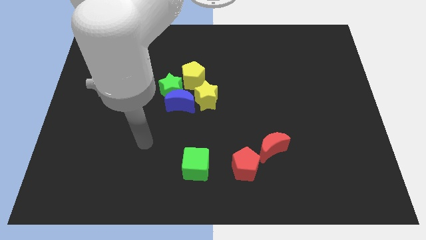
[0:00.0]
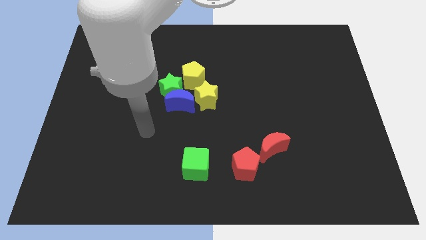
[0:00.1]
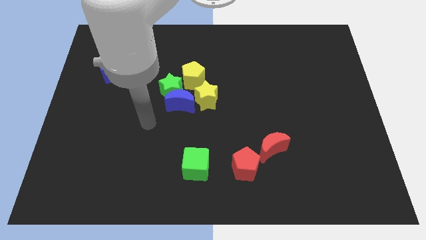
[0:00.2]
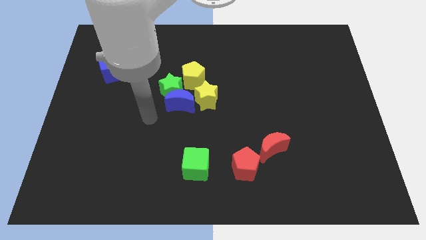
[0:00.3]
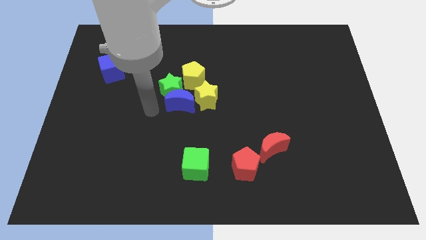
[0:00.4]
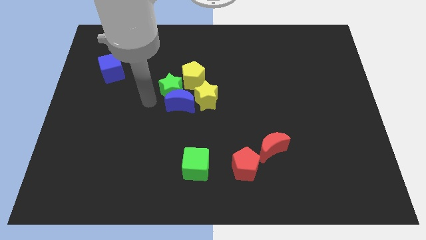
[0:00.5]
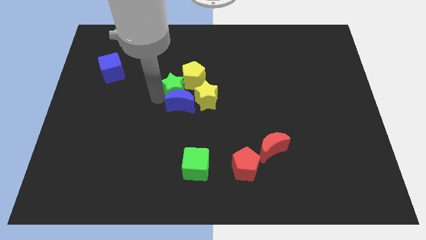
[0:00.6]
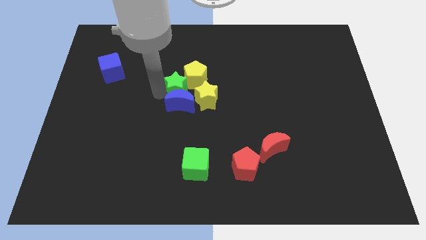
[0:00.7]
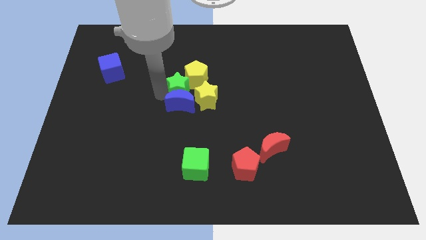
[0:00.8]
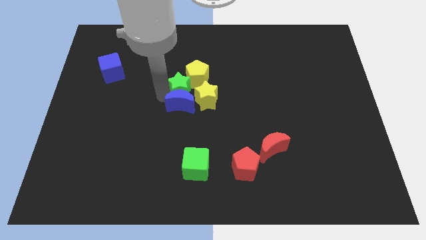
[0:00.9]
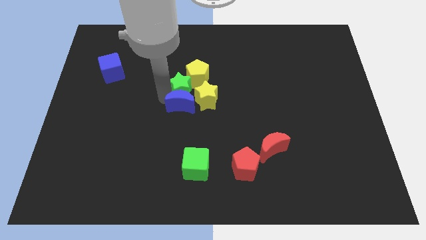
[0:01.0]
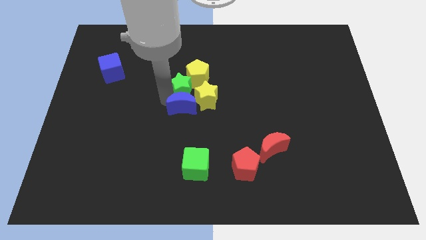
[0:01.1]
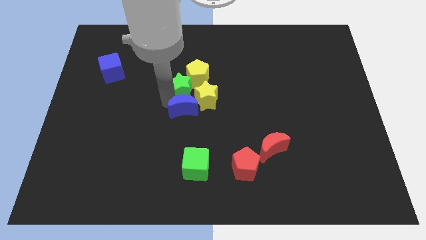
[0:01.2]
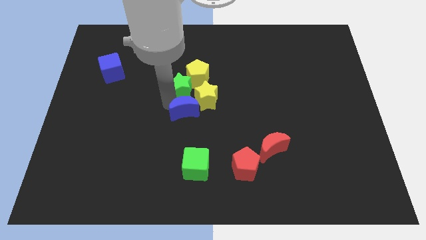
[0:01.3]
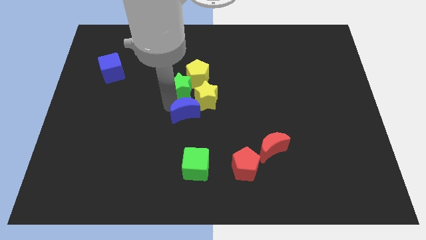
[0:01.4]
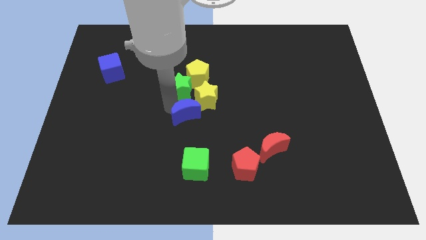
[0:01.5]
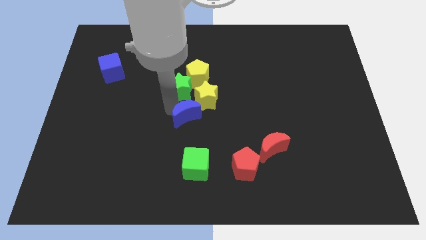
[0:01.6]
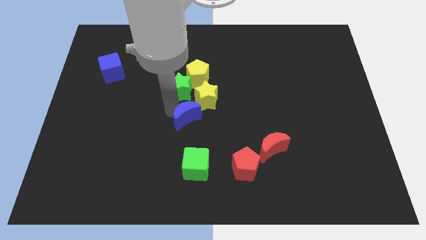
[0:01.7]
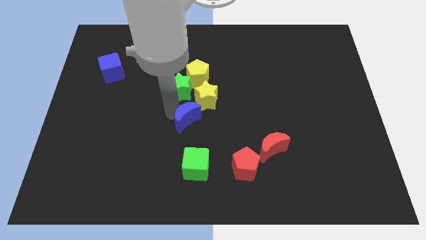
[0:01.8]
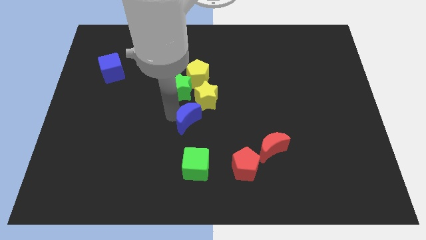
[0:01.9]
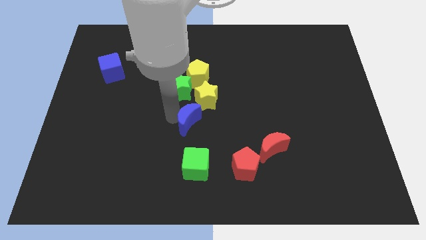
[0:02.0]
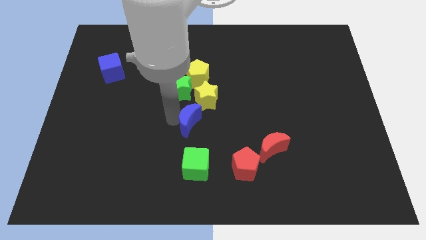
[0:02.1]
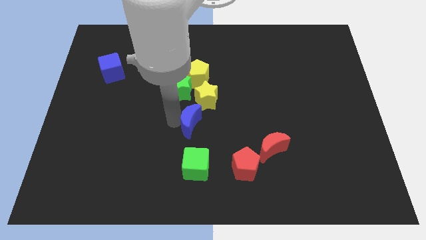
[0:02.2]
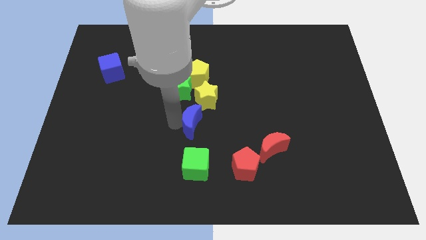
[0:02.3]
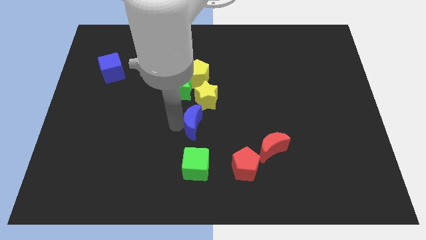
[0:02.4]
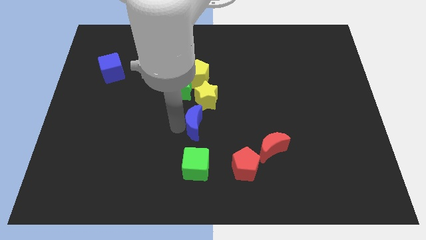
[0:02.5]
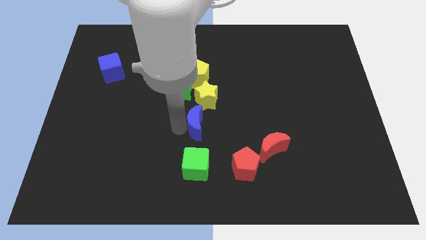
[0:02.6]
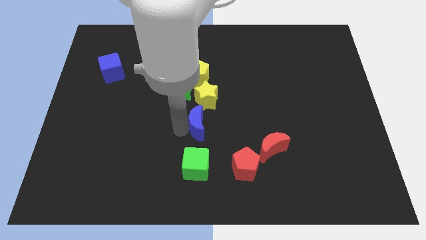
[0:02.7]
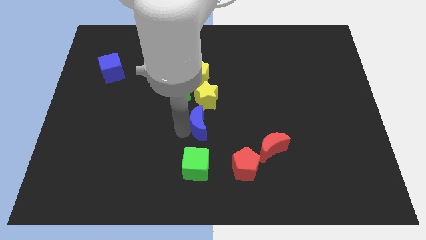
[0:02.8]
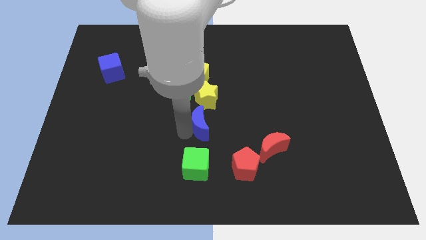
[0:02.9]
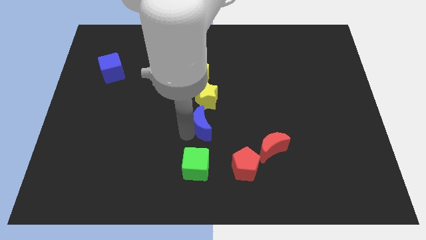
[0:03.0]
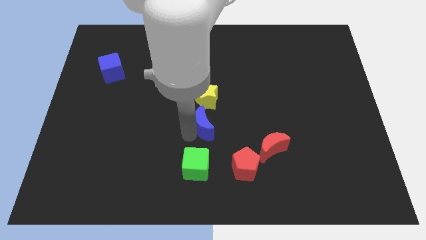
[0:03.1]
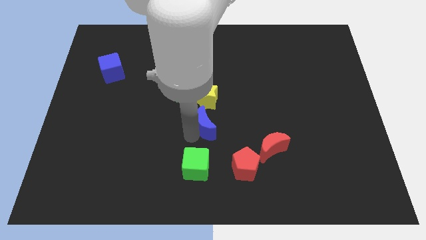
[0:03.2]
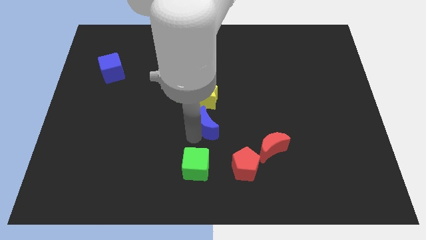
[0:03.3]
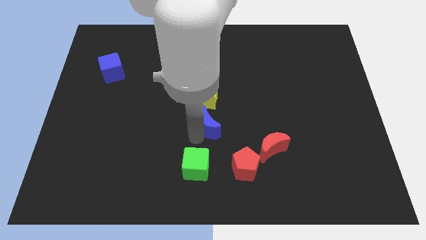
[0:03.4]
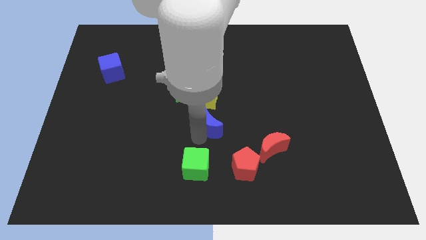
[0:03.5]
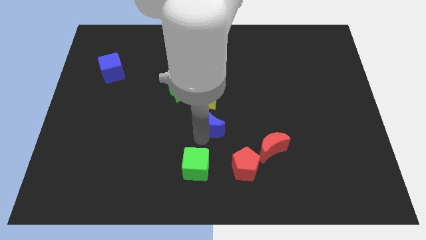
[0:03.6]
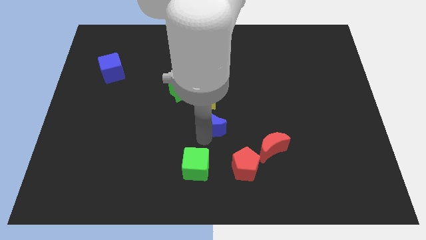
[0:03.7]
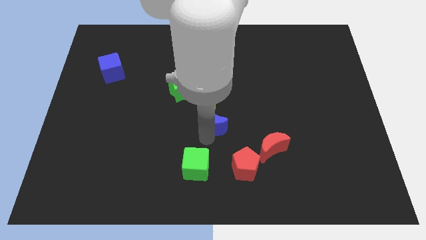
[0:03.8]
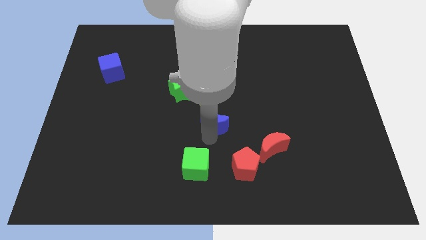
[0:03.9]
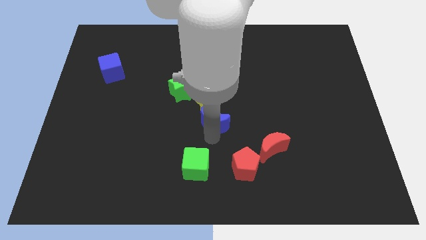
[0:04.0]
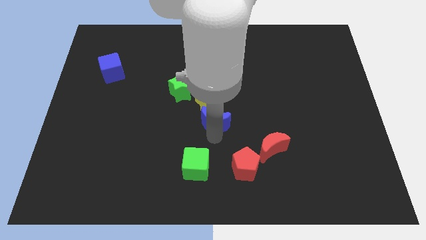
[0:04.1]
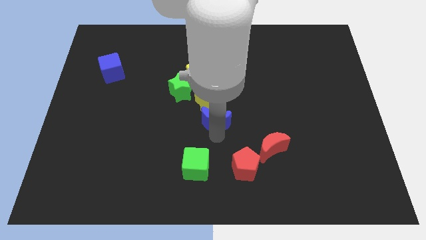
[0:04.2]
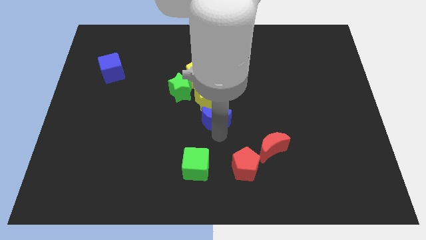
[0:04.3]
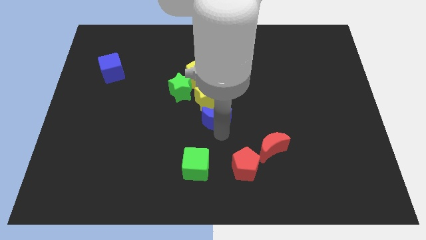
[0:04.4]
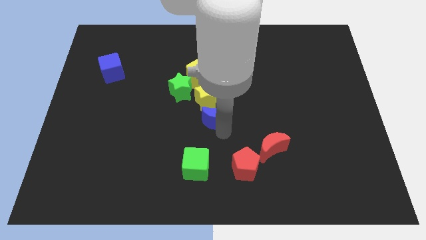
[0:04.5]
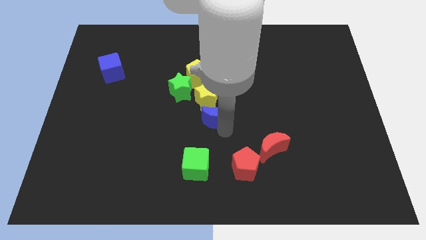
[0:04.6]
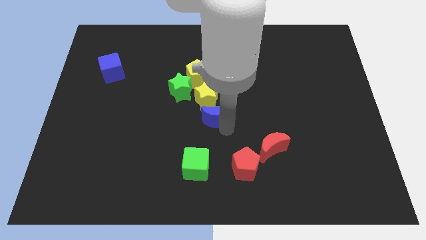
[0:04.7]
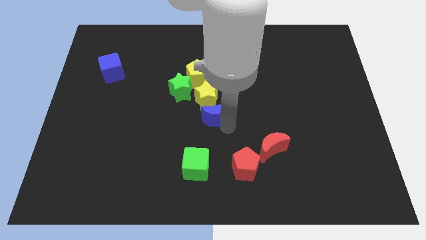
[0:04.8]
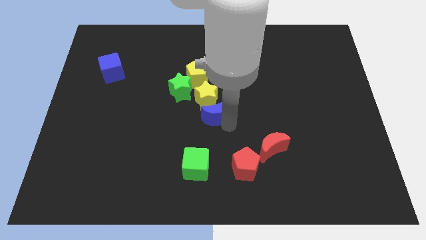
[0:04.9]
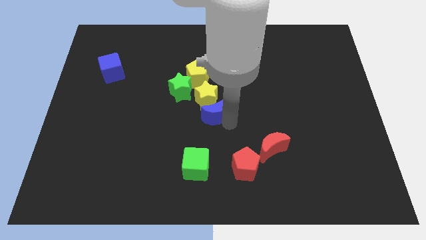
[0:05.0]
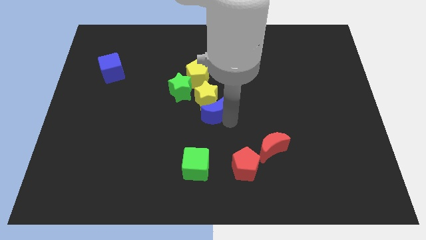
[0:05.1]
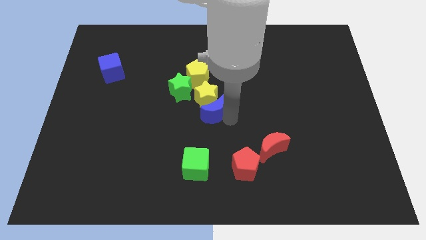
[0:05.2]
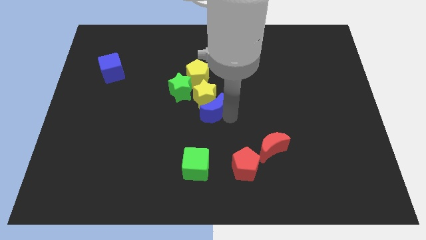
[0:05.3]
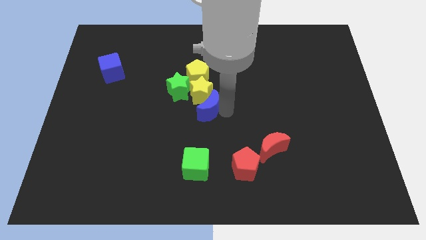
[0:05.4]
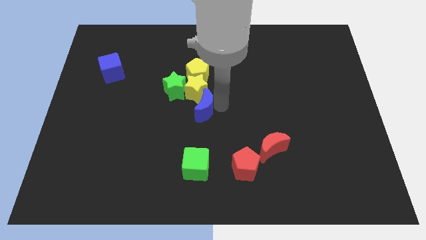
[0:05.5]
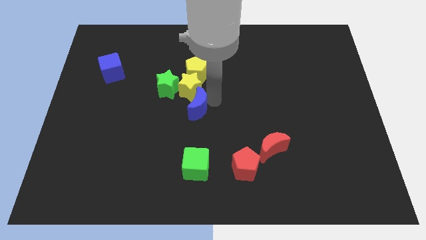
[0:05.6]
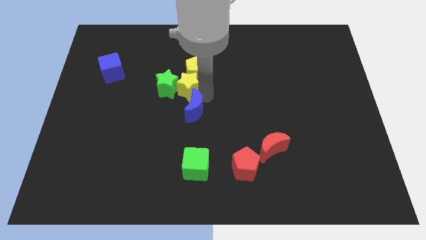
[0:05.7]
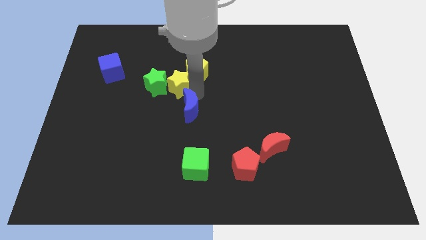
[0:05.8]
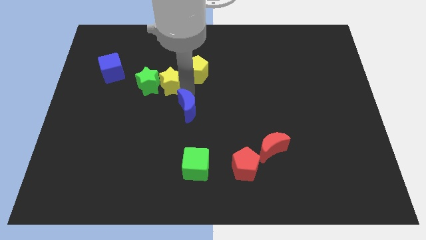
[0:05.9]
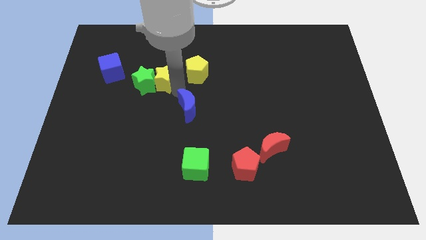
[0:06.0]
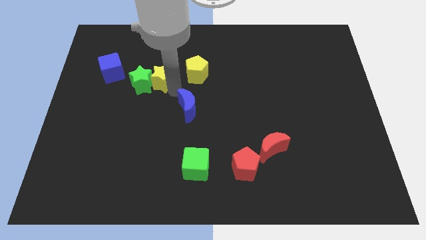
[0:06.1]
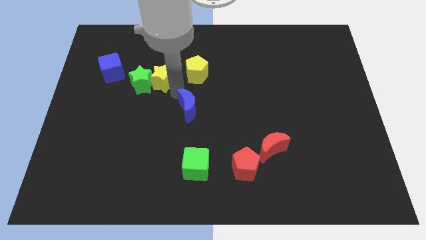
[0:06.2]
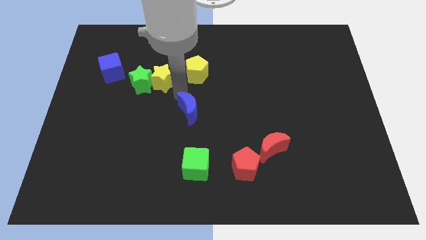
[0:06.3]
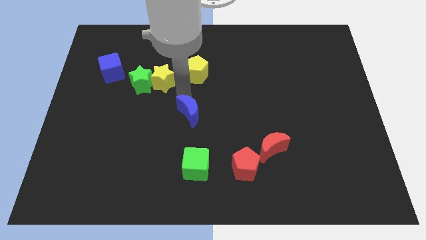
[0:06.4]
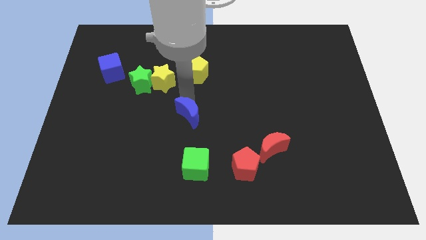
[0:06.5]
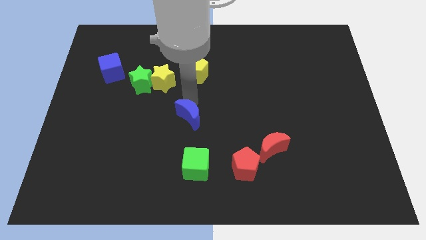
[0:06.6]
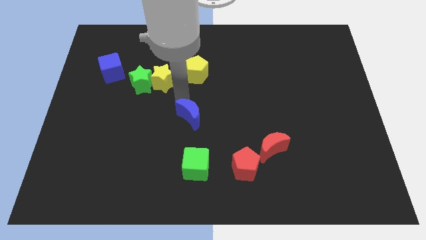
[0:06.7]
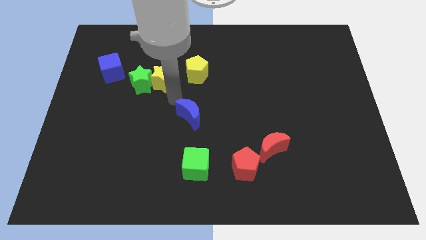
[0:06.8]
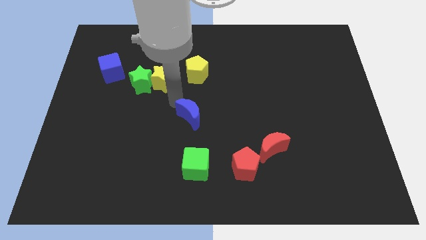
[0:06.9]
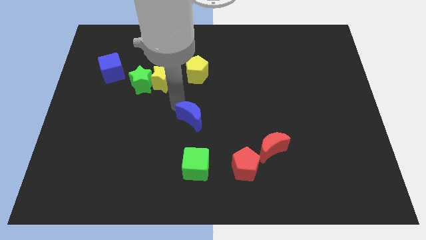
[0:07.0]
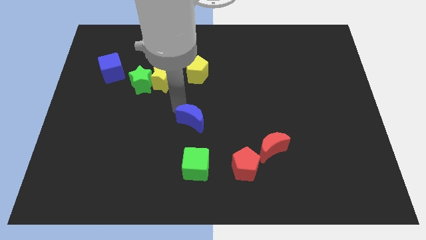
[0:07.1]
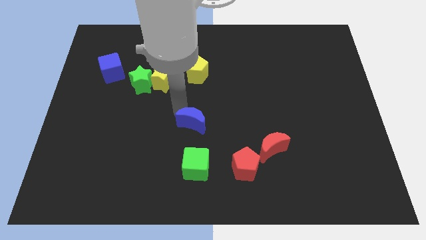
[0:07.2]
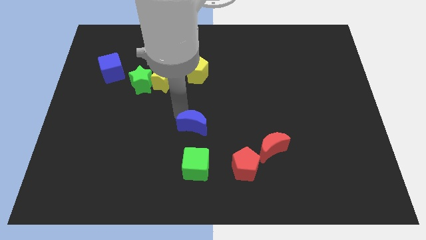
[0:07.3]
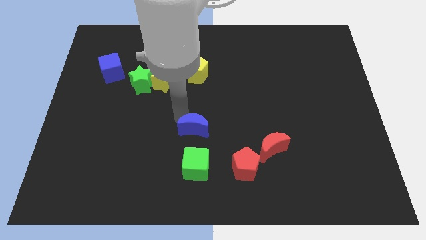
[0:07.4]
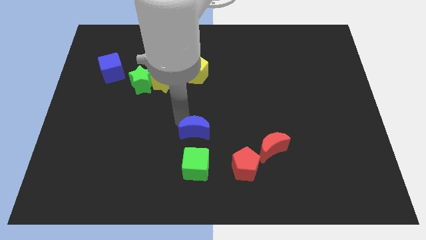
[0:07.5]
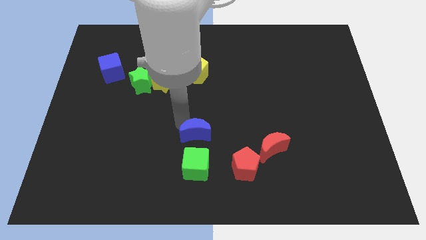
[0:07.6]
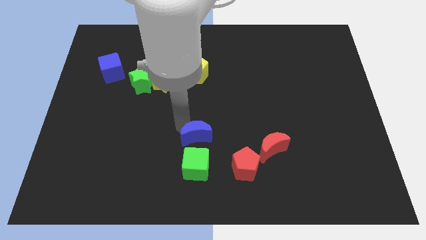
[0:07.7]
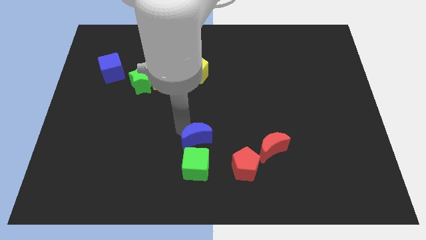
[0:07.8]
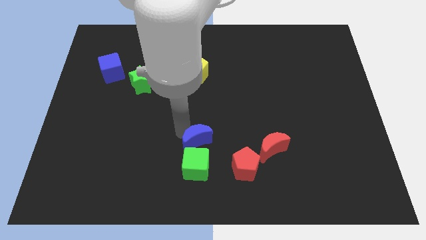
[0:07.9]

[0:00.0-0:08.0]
slide the blue moon diagonally up and to the right of the green cube
